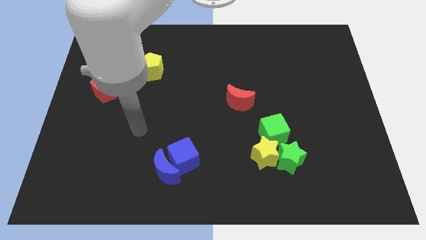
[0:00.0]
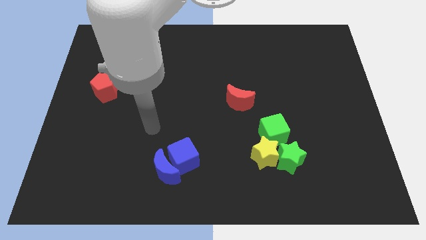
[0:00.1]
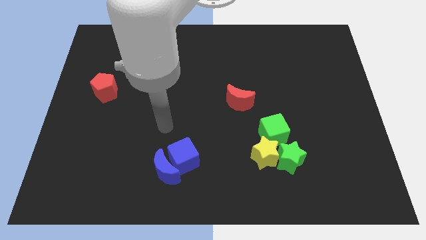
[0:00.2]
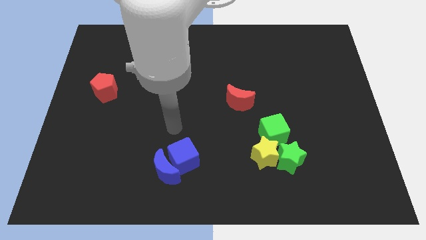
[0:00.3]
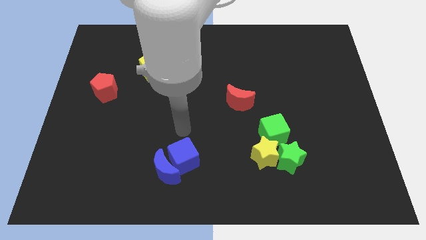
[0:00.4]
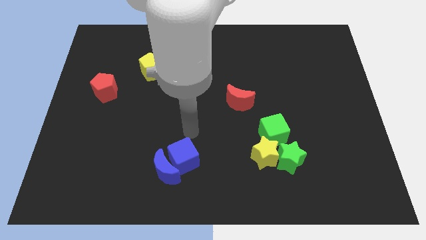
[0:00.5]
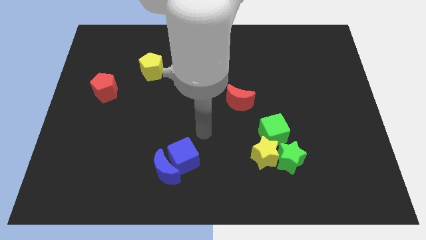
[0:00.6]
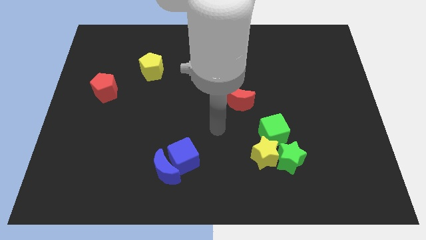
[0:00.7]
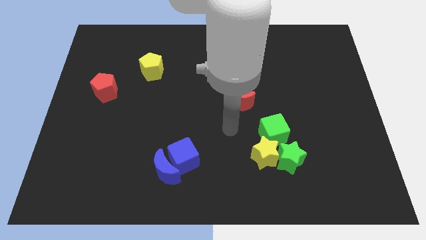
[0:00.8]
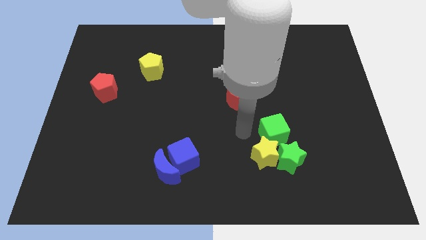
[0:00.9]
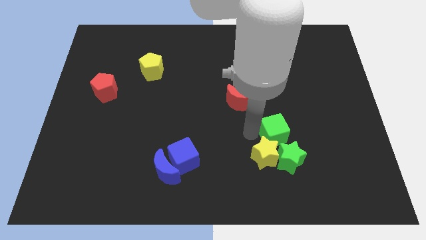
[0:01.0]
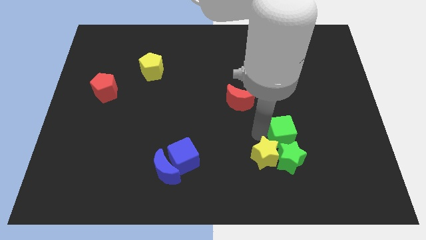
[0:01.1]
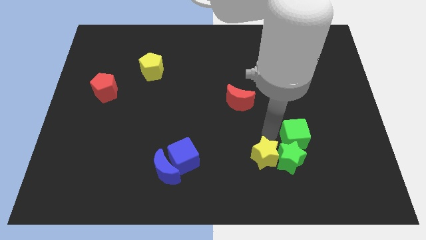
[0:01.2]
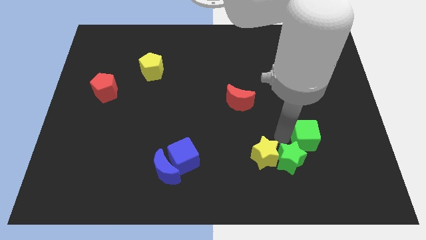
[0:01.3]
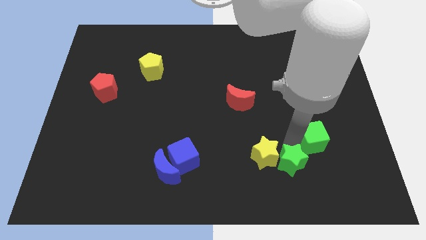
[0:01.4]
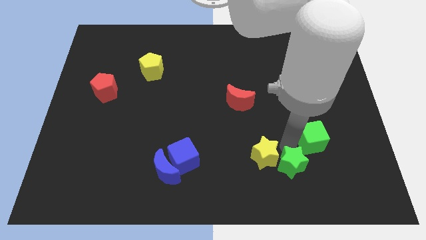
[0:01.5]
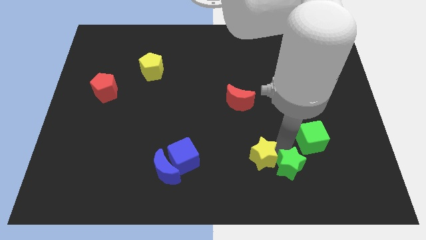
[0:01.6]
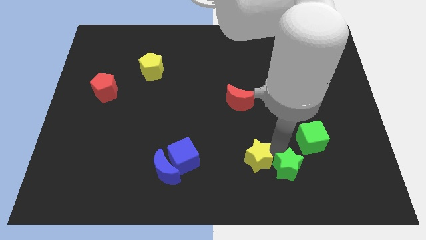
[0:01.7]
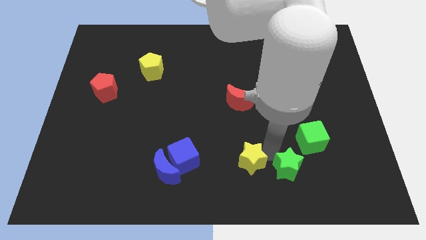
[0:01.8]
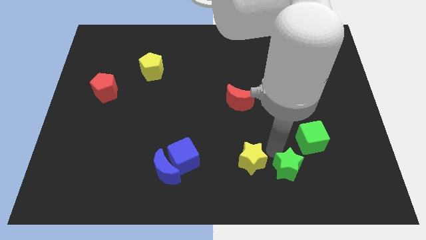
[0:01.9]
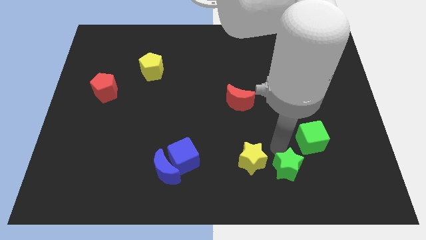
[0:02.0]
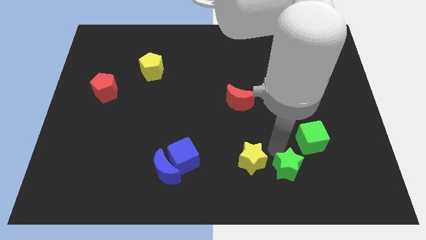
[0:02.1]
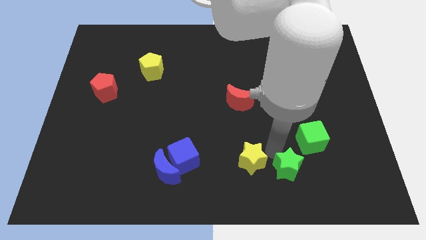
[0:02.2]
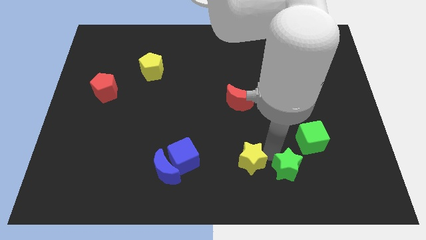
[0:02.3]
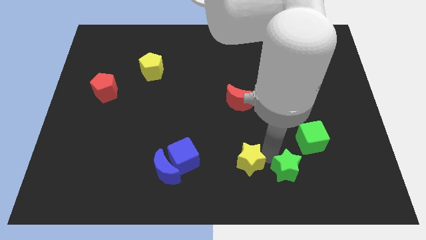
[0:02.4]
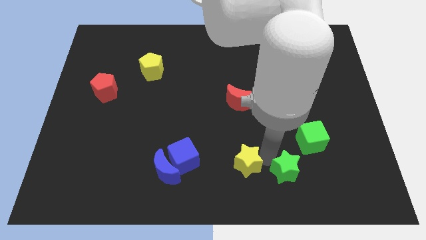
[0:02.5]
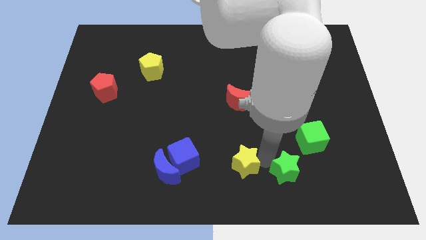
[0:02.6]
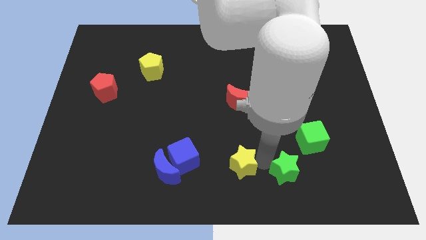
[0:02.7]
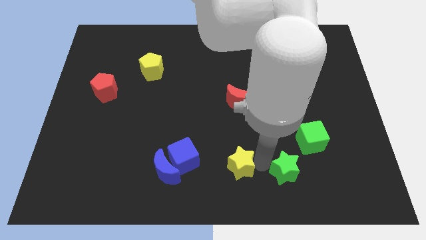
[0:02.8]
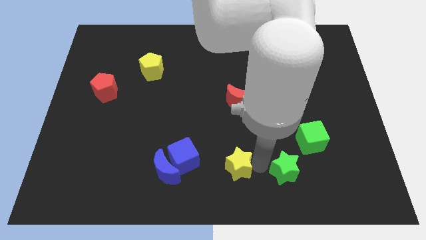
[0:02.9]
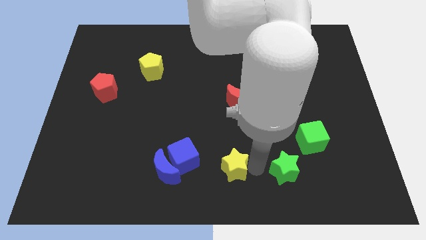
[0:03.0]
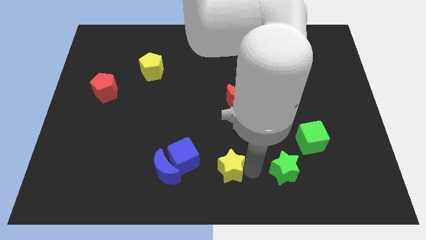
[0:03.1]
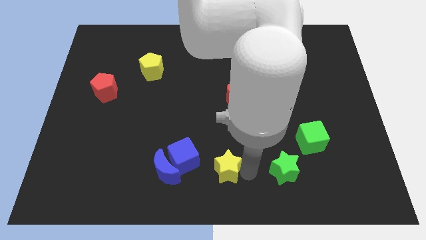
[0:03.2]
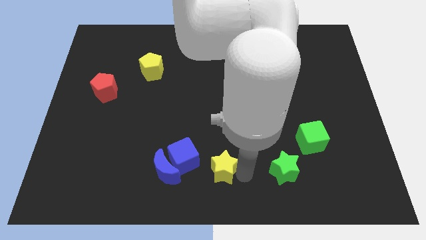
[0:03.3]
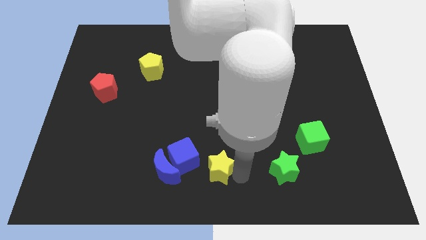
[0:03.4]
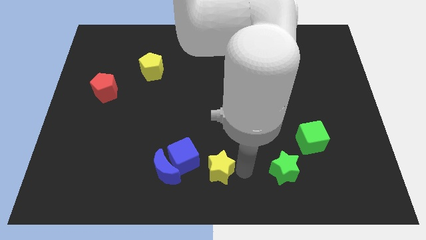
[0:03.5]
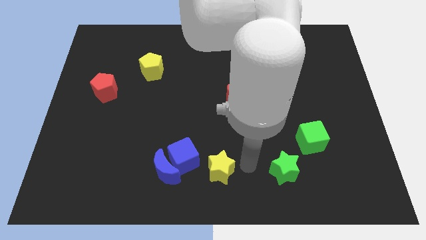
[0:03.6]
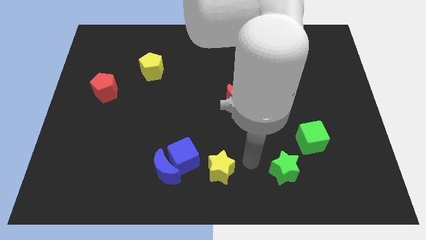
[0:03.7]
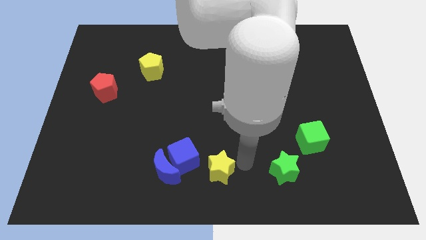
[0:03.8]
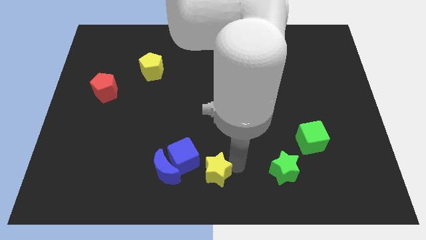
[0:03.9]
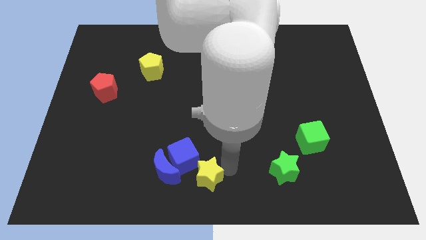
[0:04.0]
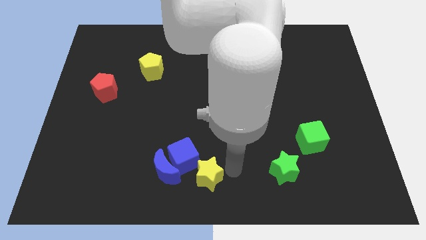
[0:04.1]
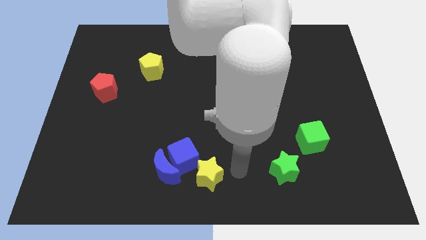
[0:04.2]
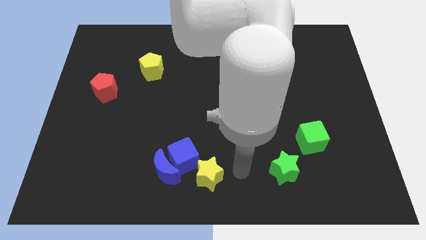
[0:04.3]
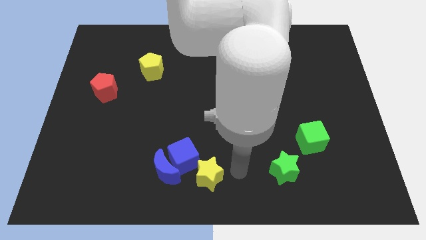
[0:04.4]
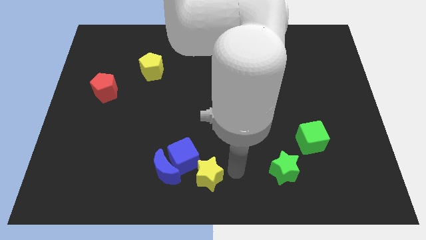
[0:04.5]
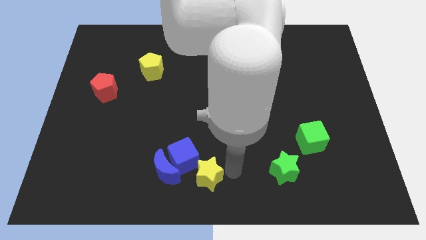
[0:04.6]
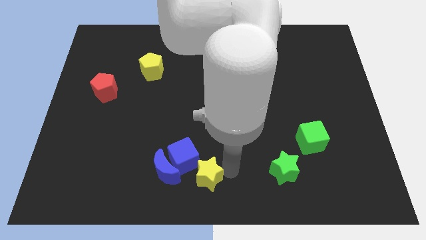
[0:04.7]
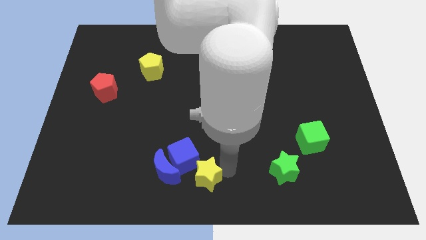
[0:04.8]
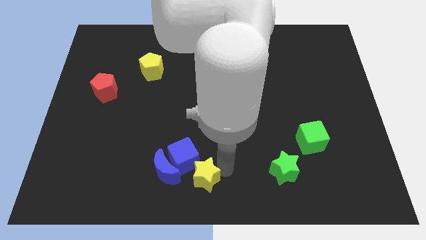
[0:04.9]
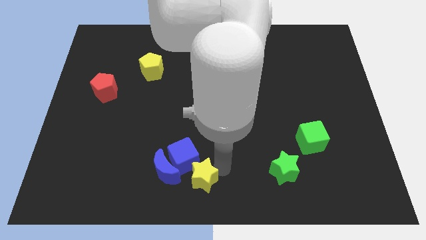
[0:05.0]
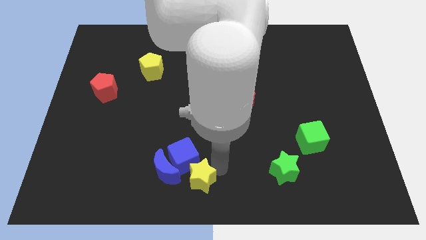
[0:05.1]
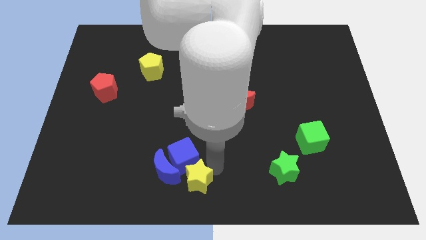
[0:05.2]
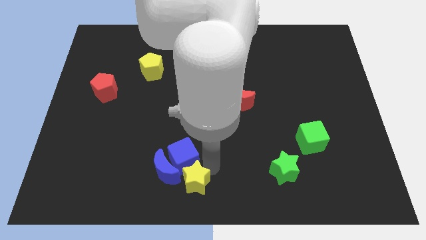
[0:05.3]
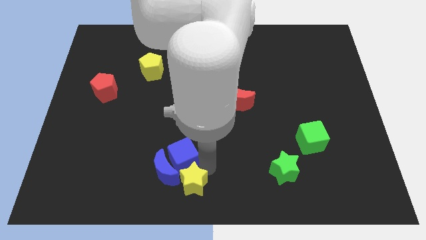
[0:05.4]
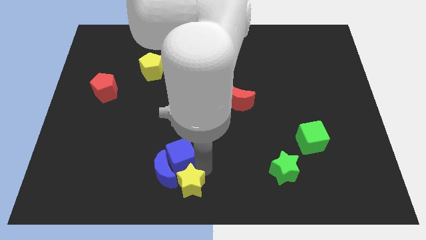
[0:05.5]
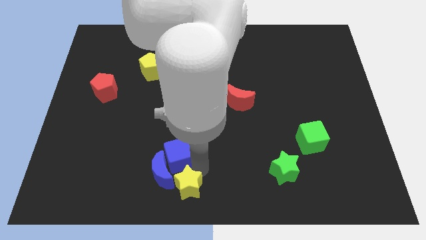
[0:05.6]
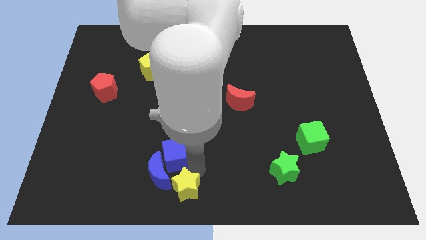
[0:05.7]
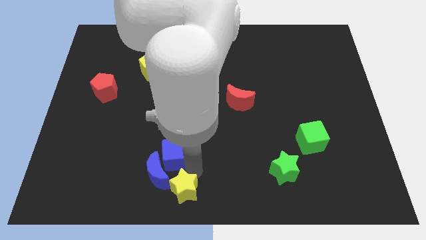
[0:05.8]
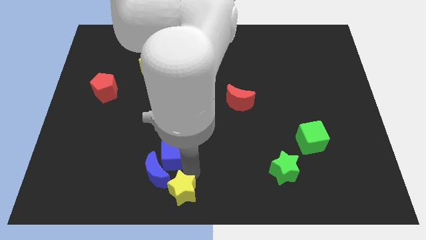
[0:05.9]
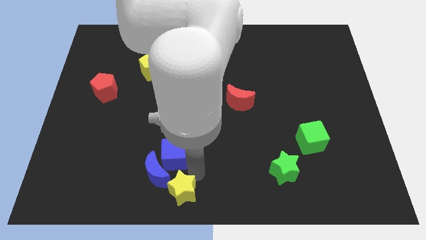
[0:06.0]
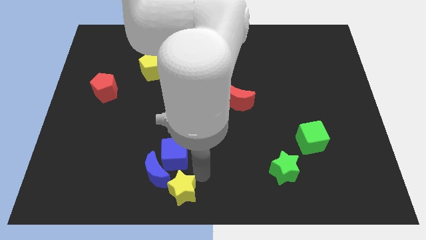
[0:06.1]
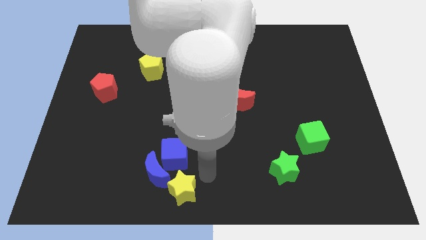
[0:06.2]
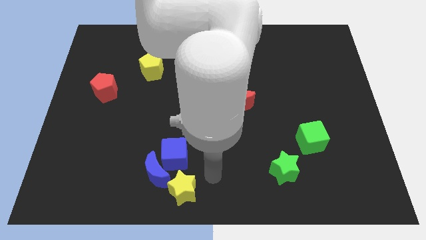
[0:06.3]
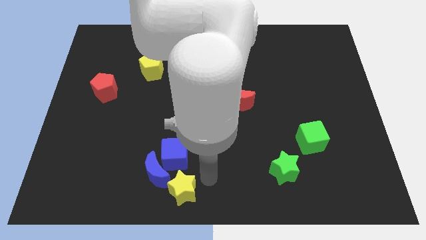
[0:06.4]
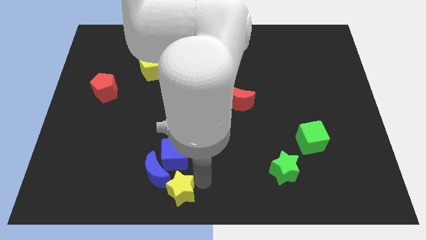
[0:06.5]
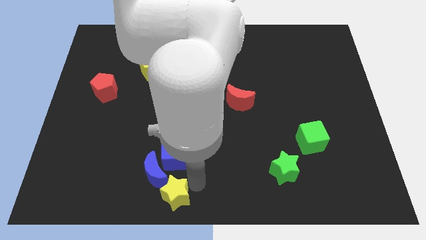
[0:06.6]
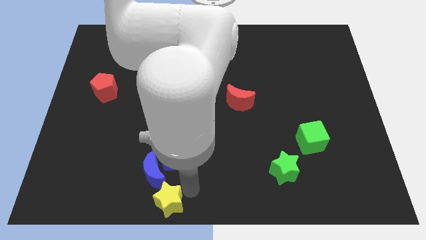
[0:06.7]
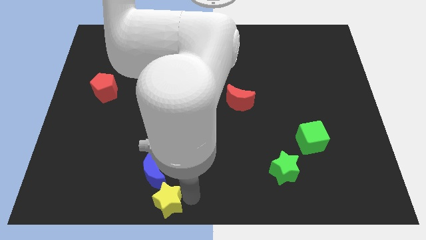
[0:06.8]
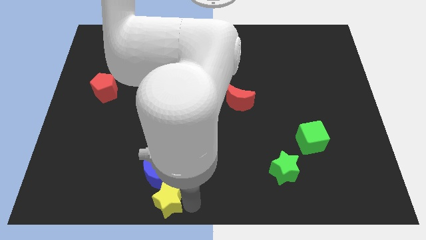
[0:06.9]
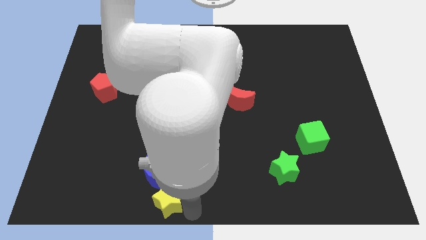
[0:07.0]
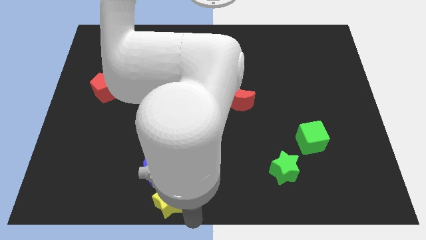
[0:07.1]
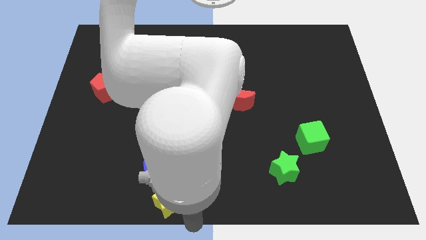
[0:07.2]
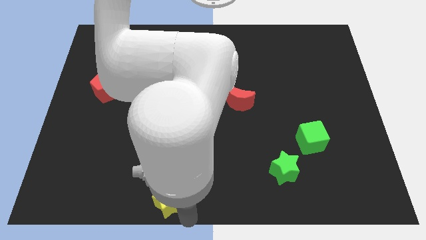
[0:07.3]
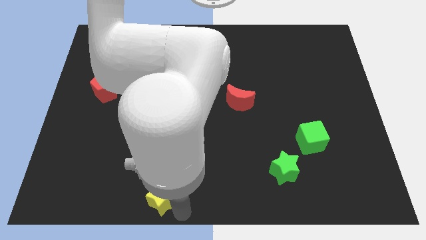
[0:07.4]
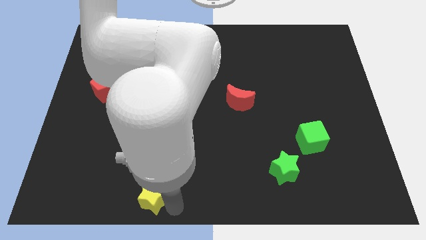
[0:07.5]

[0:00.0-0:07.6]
push the yellow star to the bottom left of the blue cube
